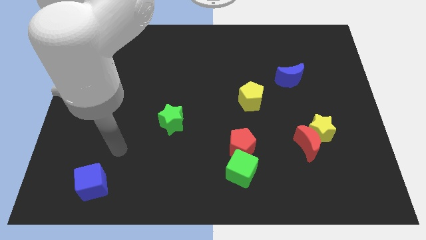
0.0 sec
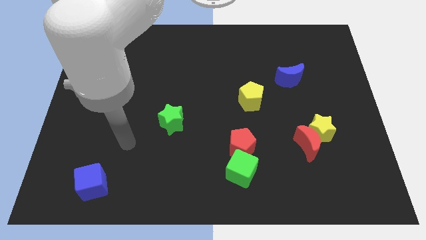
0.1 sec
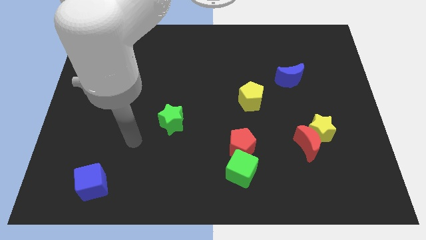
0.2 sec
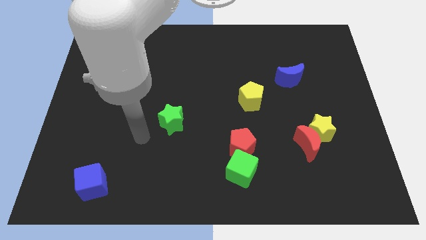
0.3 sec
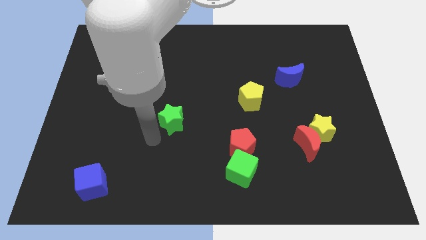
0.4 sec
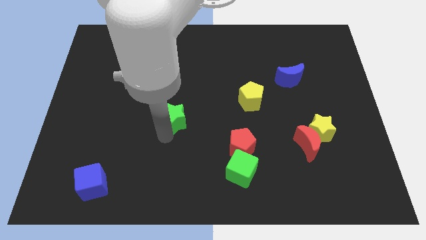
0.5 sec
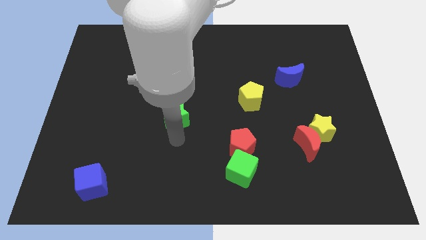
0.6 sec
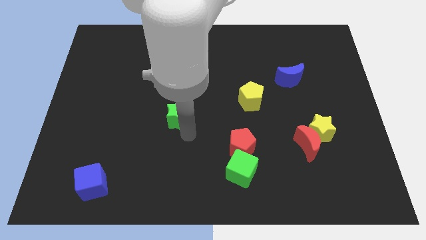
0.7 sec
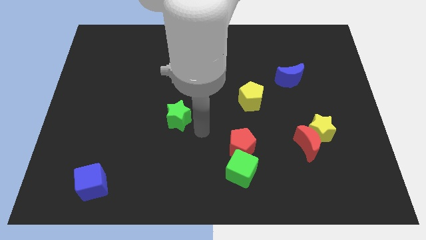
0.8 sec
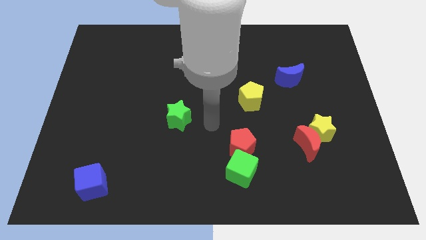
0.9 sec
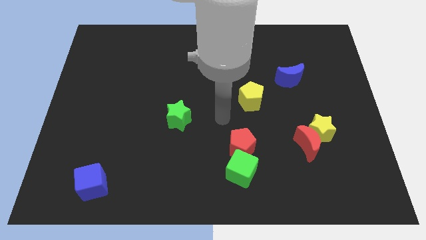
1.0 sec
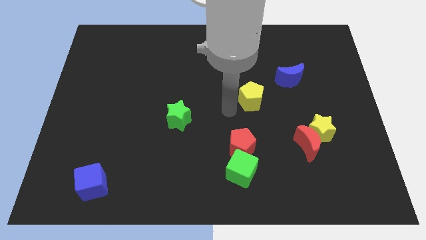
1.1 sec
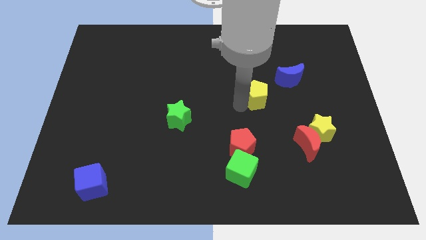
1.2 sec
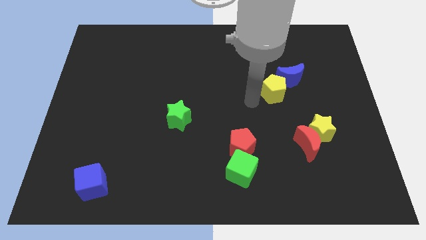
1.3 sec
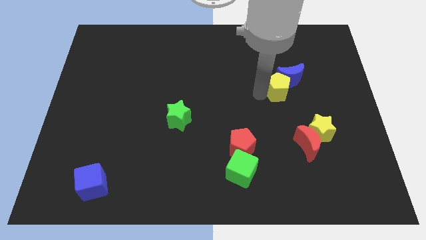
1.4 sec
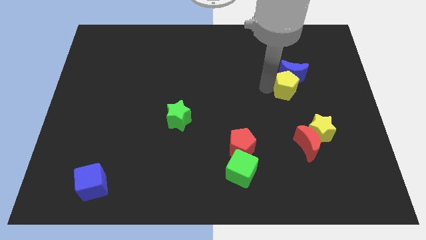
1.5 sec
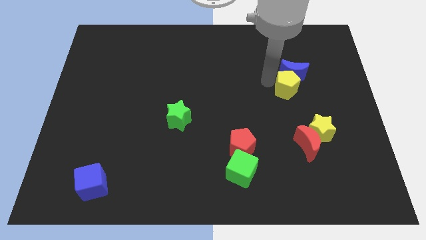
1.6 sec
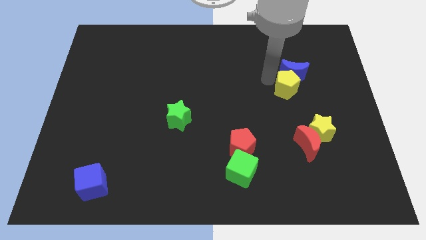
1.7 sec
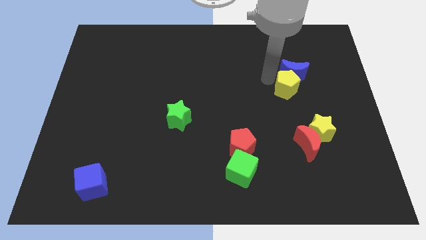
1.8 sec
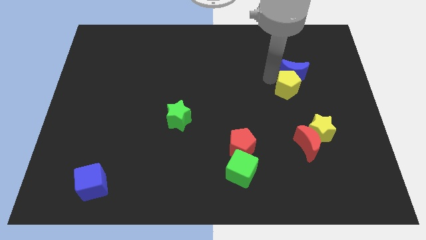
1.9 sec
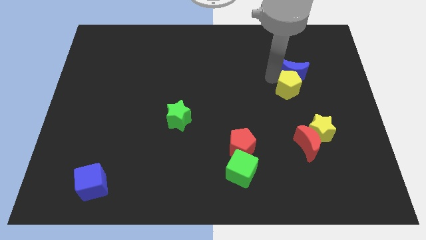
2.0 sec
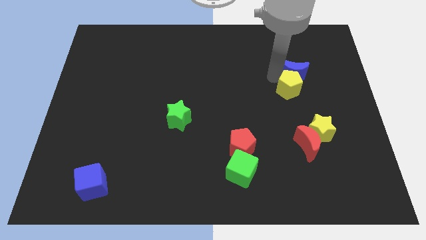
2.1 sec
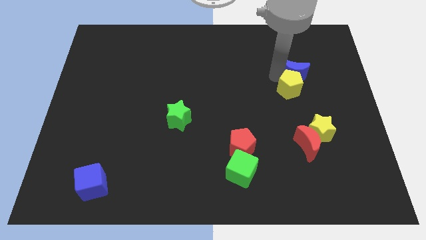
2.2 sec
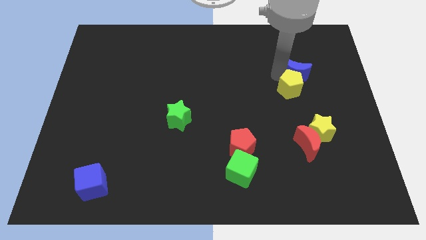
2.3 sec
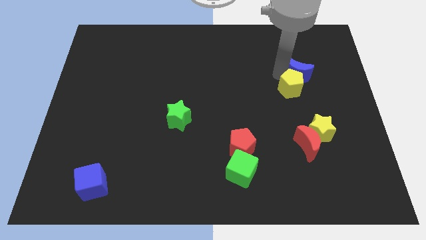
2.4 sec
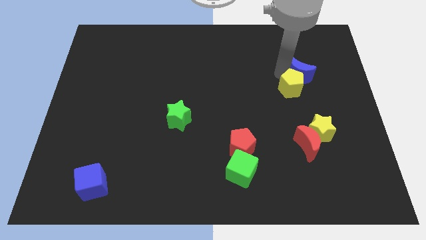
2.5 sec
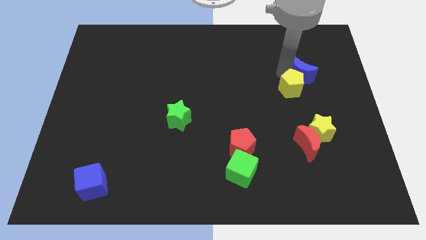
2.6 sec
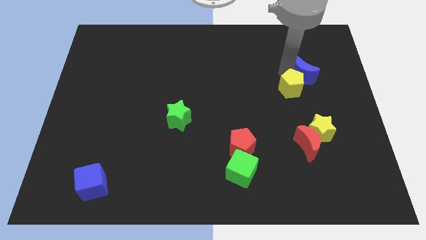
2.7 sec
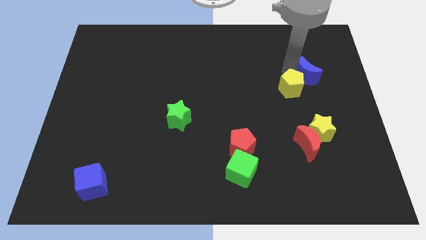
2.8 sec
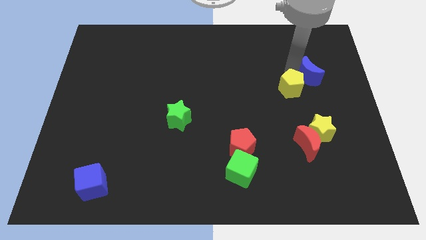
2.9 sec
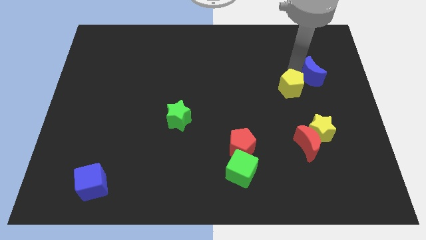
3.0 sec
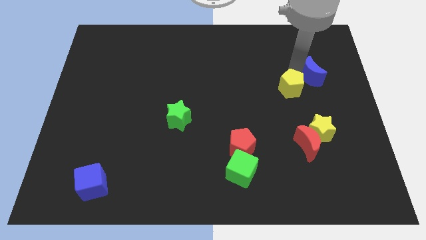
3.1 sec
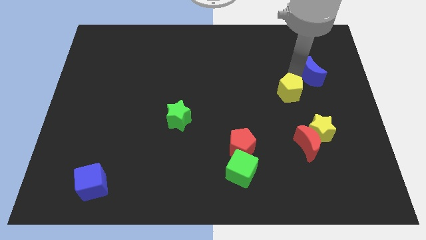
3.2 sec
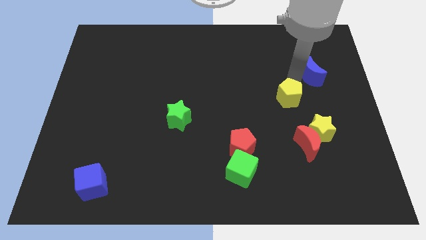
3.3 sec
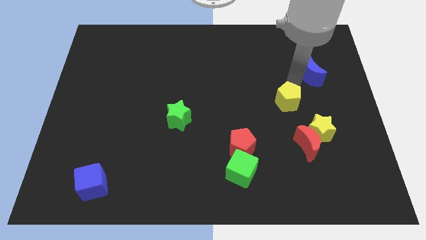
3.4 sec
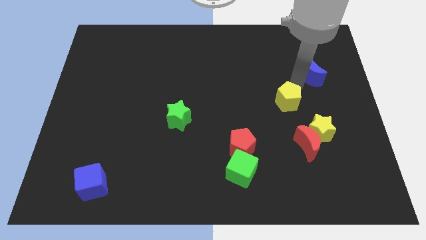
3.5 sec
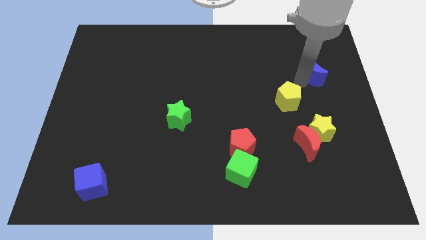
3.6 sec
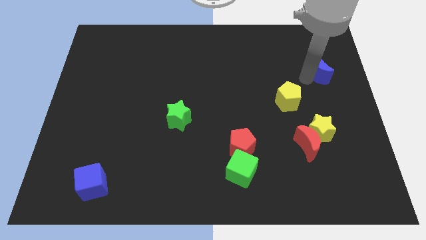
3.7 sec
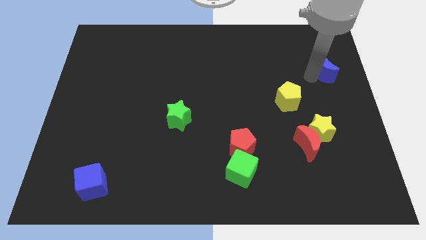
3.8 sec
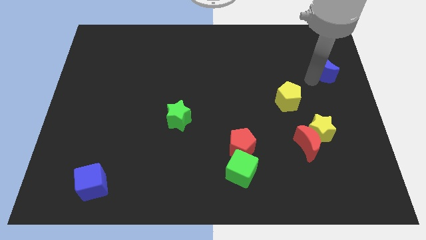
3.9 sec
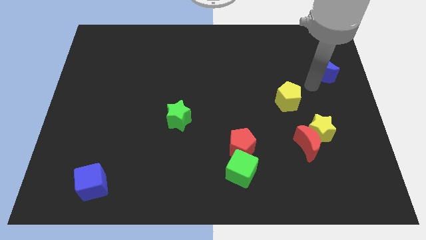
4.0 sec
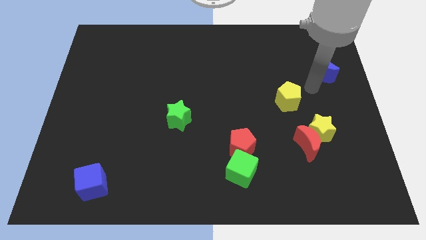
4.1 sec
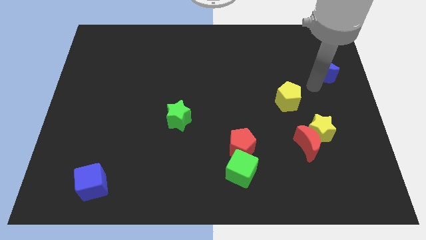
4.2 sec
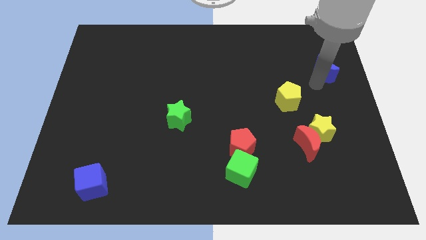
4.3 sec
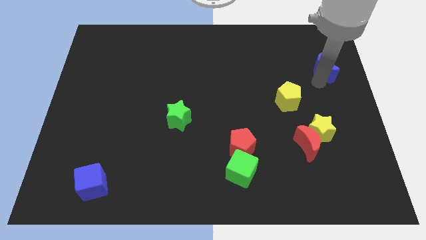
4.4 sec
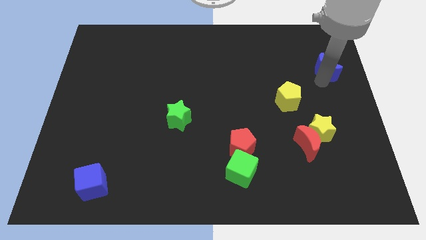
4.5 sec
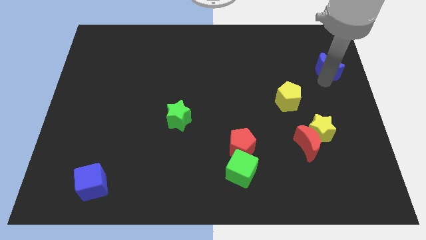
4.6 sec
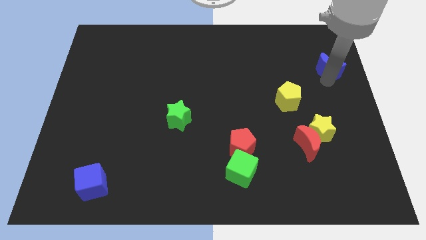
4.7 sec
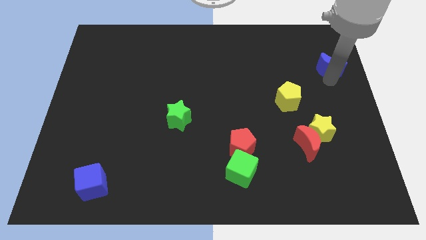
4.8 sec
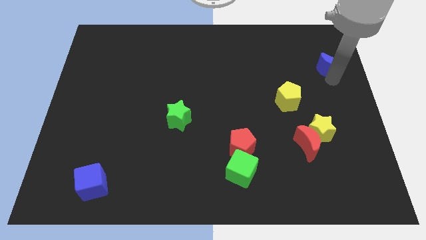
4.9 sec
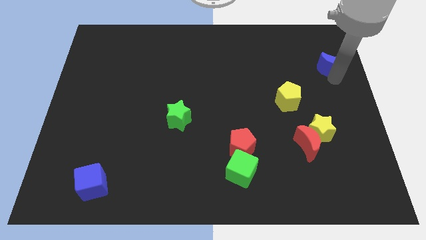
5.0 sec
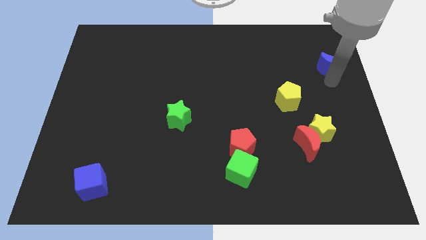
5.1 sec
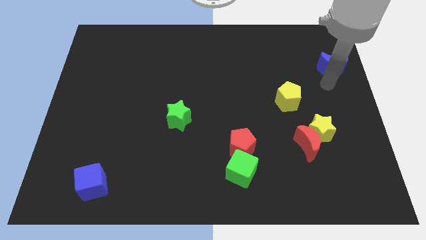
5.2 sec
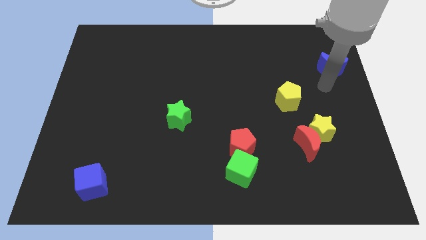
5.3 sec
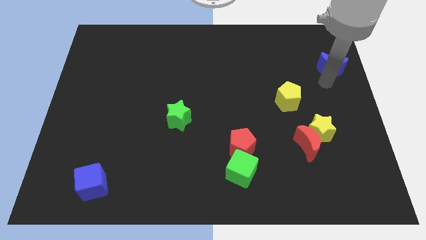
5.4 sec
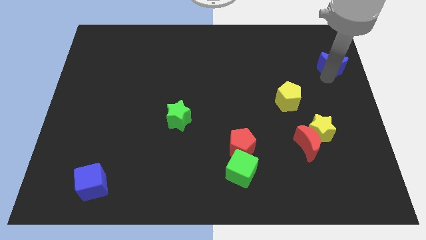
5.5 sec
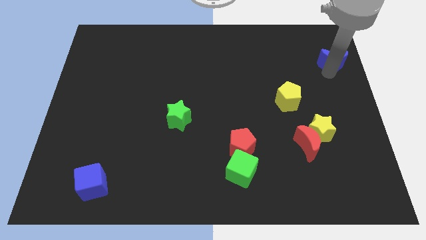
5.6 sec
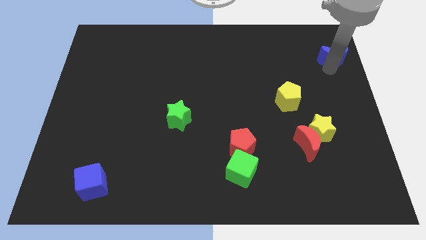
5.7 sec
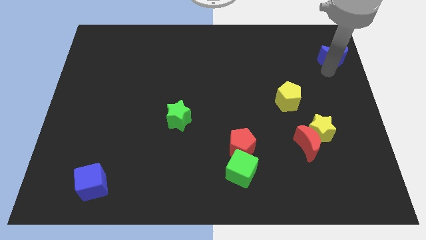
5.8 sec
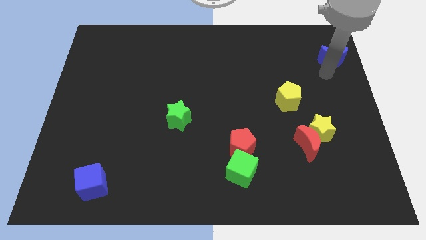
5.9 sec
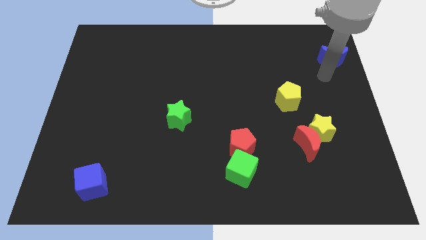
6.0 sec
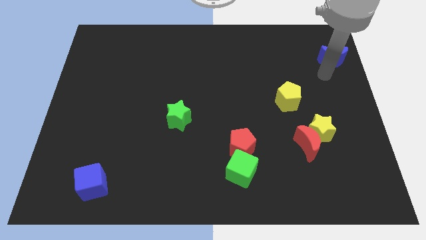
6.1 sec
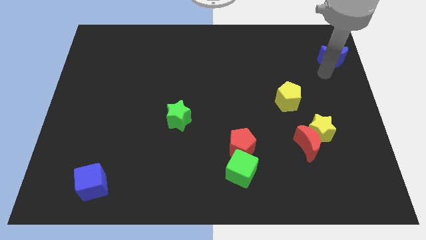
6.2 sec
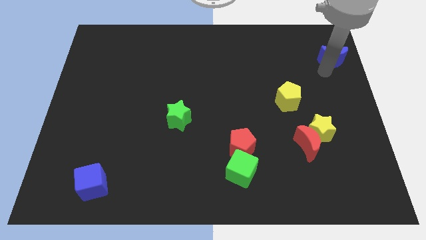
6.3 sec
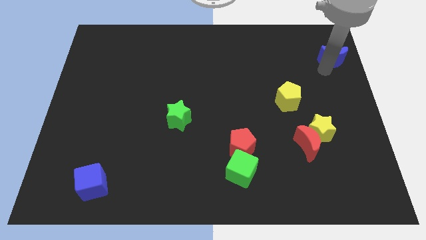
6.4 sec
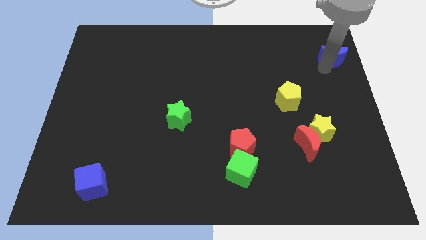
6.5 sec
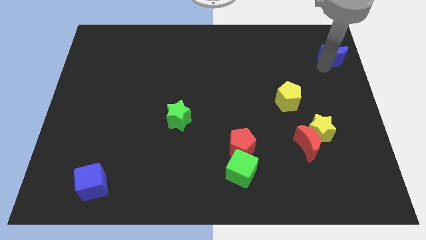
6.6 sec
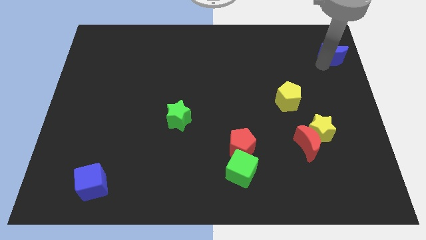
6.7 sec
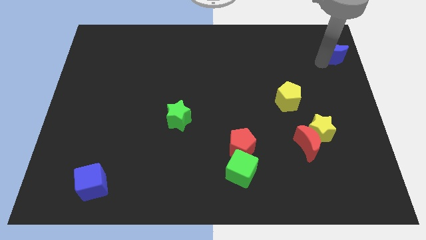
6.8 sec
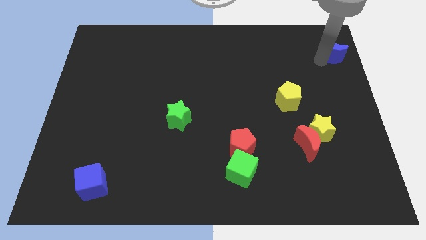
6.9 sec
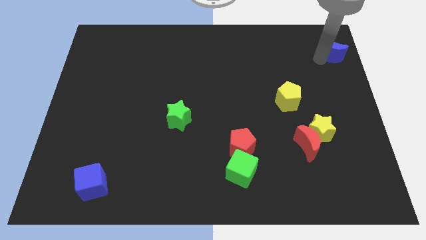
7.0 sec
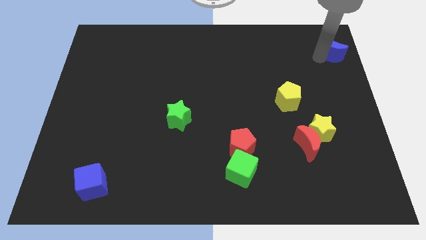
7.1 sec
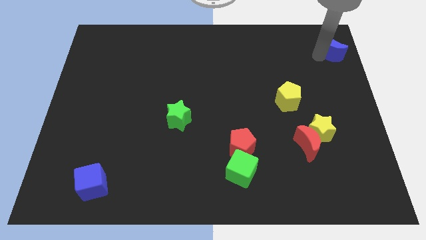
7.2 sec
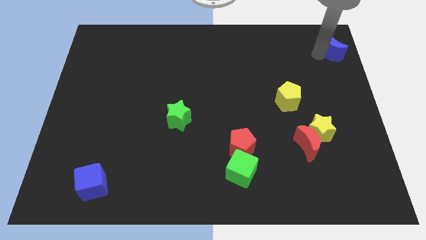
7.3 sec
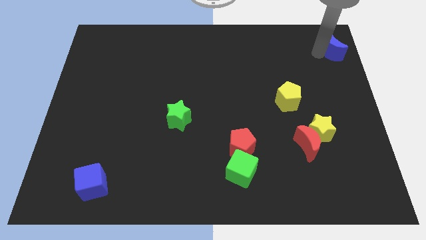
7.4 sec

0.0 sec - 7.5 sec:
slide the blue moon to the upper right corner

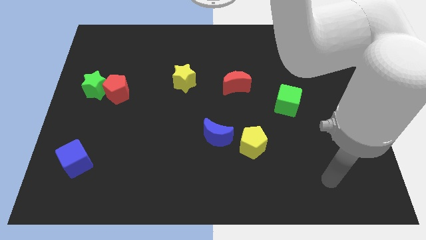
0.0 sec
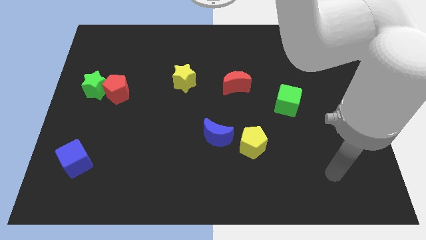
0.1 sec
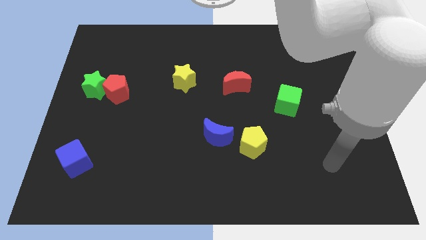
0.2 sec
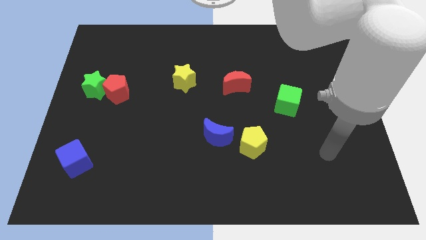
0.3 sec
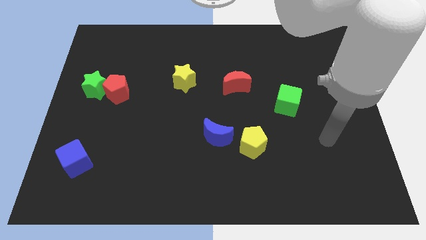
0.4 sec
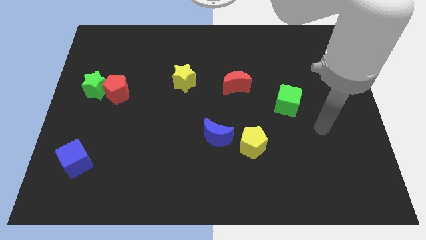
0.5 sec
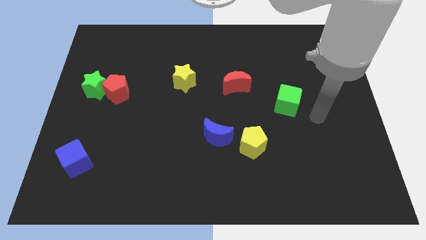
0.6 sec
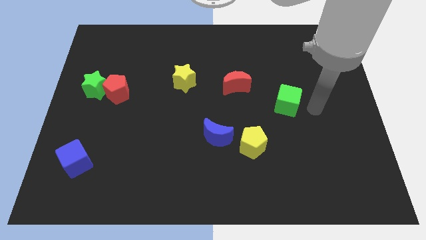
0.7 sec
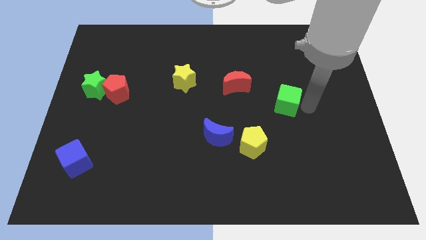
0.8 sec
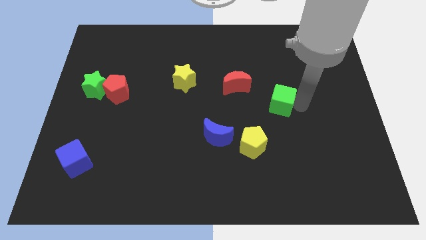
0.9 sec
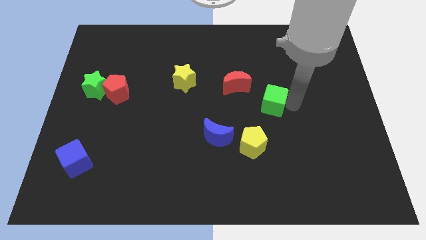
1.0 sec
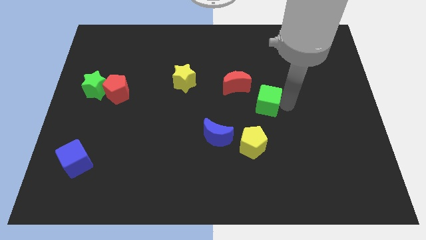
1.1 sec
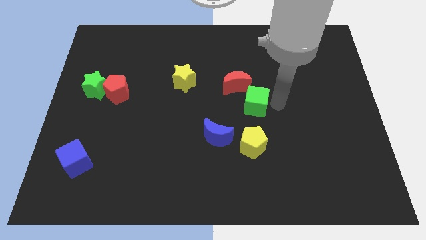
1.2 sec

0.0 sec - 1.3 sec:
put the green cube to the center
